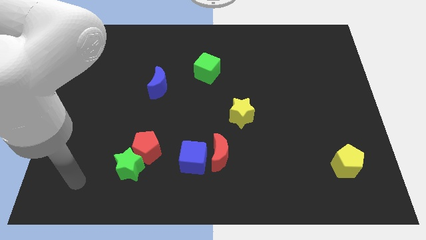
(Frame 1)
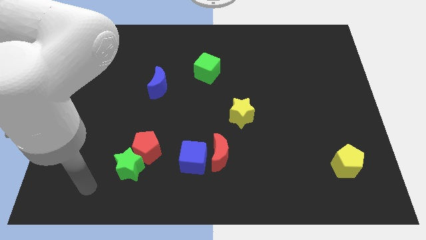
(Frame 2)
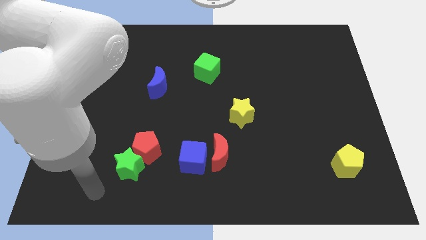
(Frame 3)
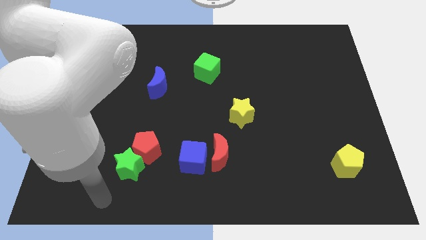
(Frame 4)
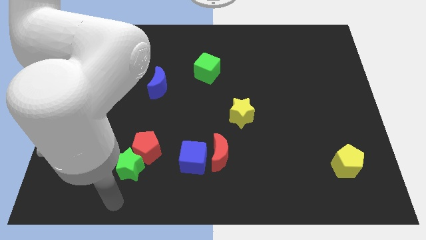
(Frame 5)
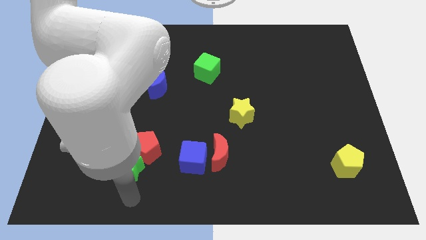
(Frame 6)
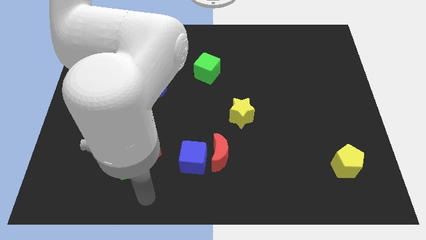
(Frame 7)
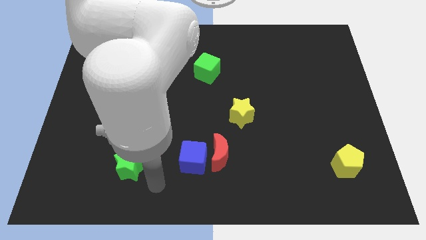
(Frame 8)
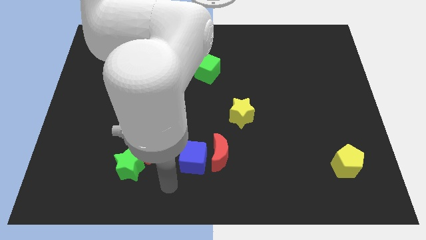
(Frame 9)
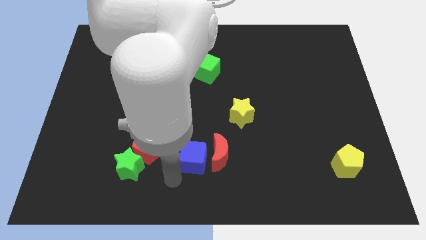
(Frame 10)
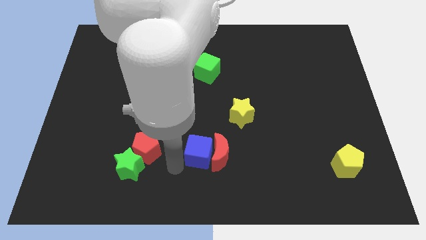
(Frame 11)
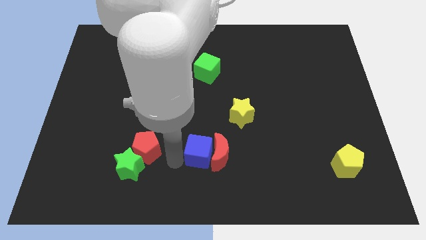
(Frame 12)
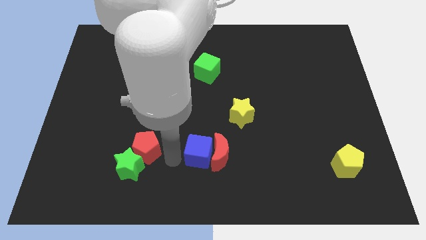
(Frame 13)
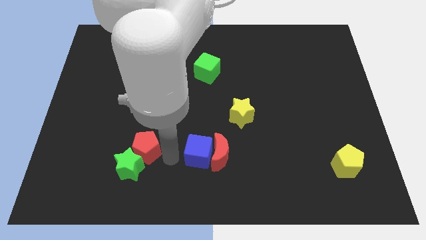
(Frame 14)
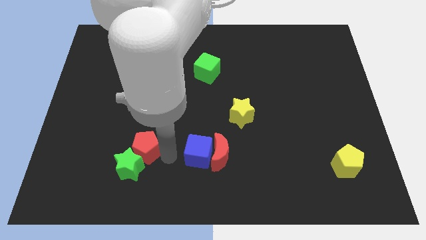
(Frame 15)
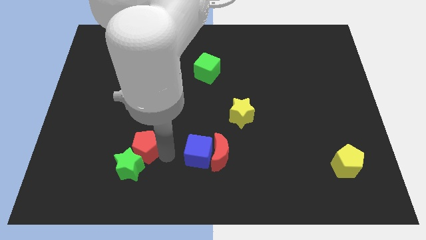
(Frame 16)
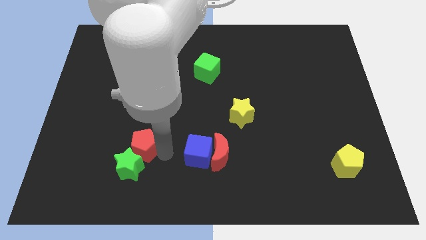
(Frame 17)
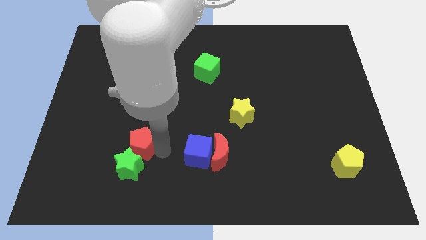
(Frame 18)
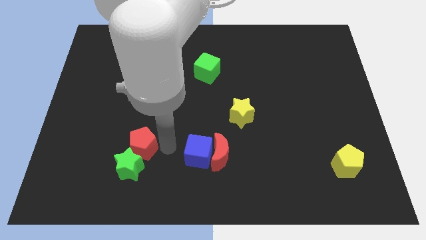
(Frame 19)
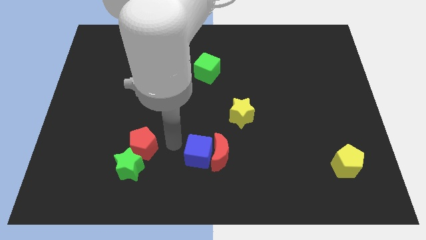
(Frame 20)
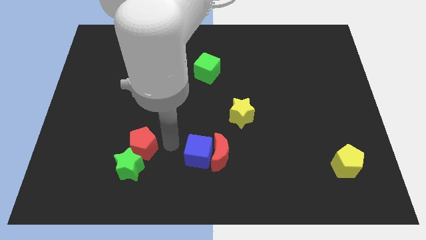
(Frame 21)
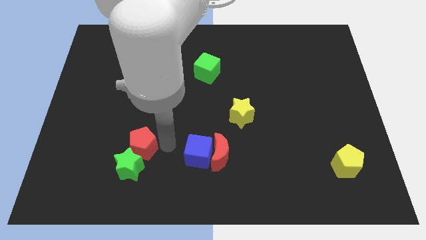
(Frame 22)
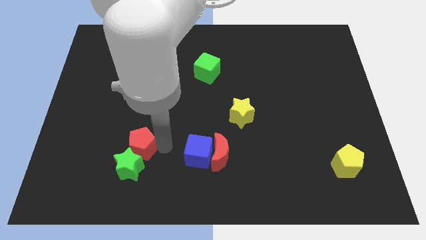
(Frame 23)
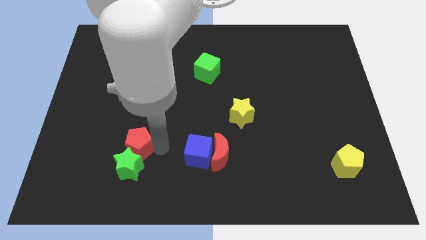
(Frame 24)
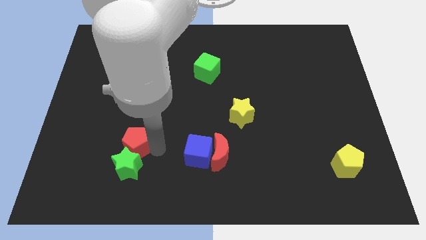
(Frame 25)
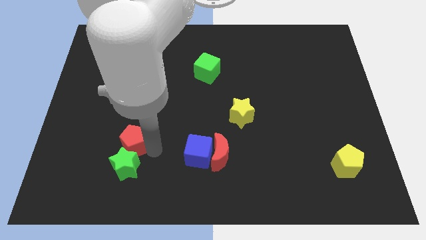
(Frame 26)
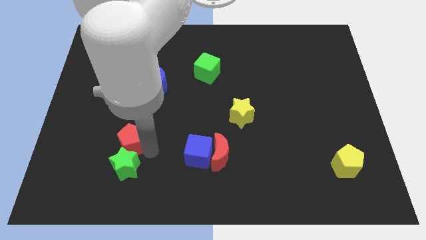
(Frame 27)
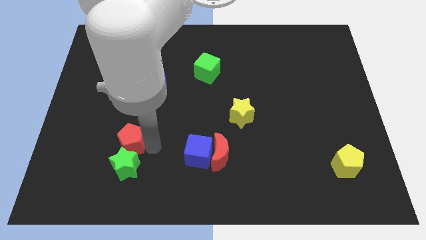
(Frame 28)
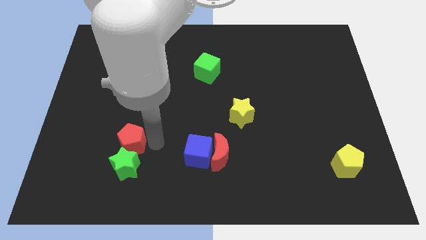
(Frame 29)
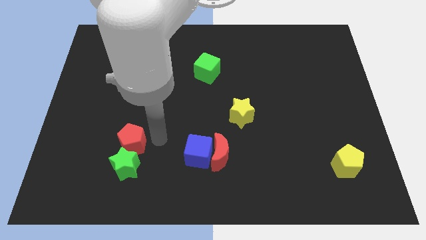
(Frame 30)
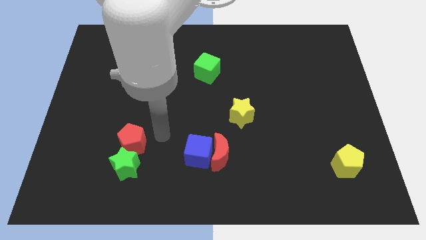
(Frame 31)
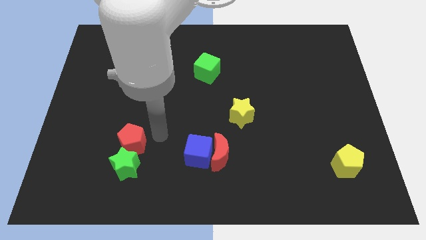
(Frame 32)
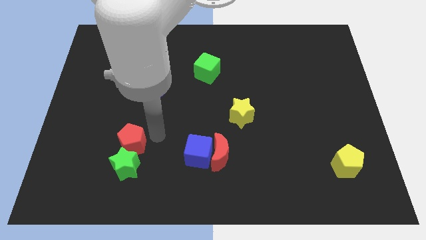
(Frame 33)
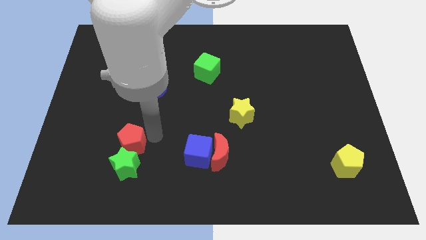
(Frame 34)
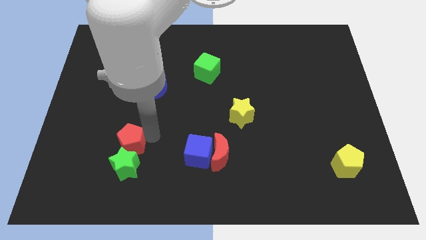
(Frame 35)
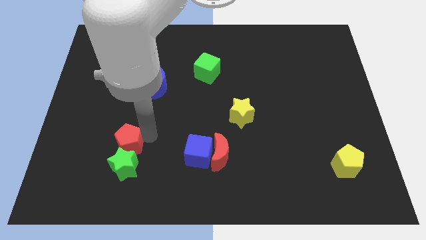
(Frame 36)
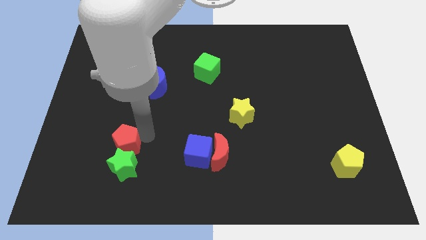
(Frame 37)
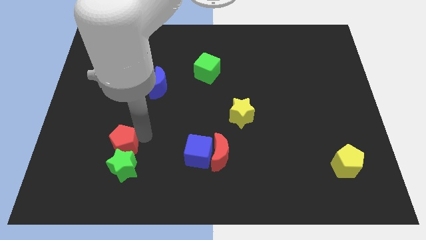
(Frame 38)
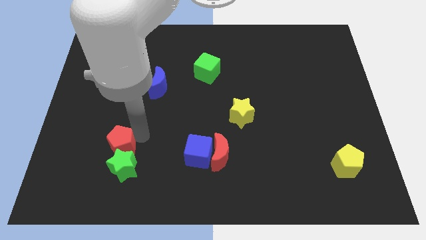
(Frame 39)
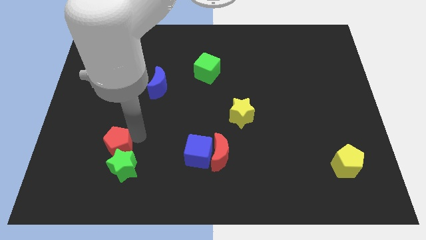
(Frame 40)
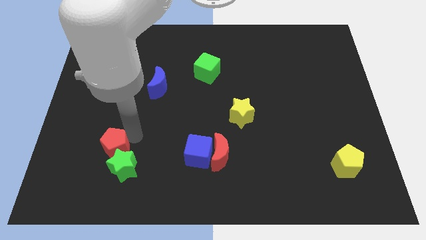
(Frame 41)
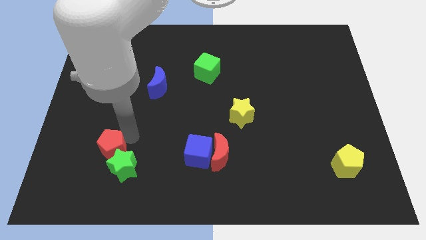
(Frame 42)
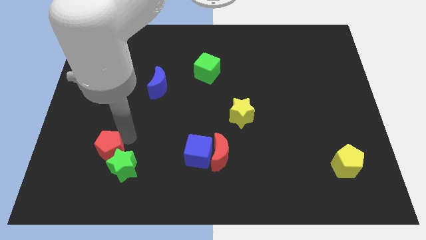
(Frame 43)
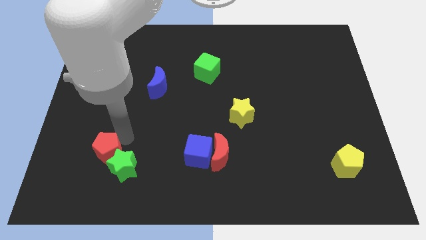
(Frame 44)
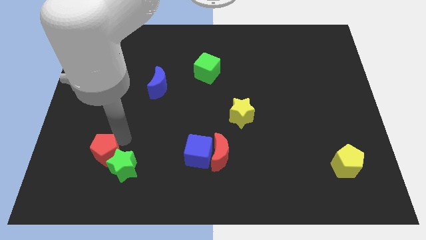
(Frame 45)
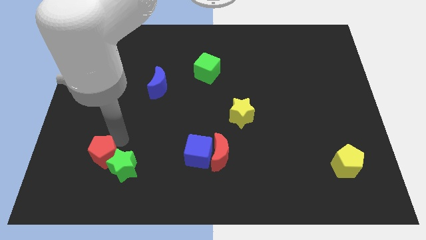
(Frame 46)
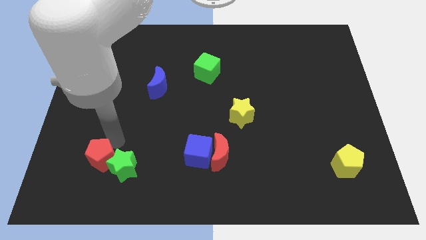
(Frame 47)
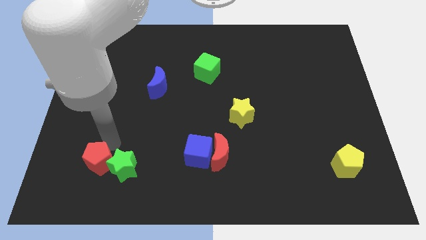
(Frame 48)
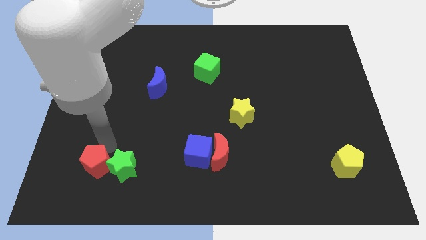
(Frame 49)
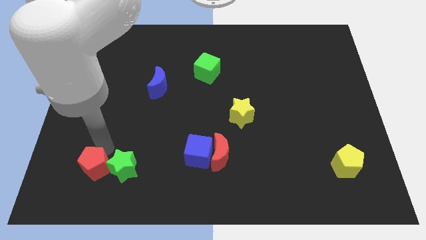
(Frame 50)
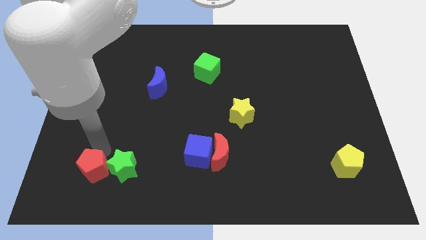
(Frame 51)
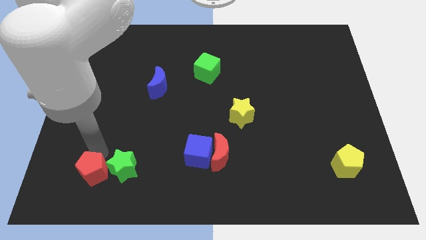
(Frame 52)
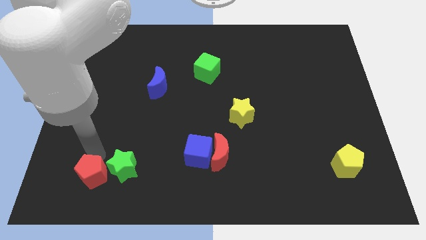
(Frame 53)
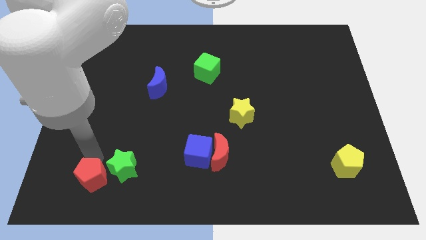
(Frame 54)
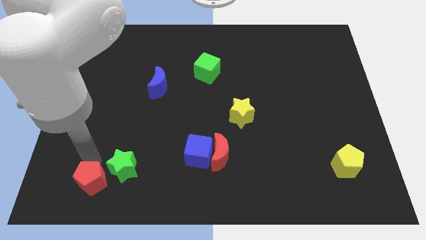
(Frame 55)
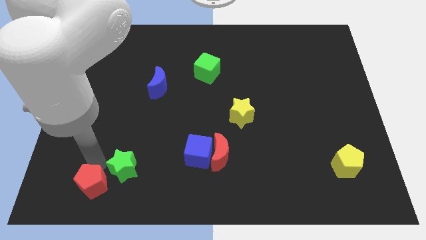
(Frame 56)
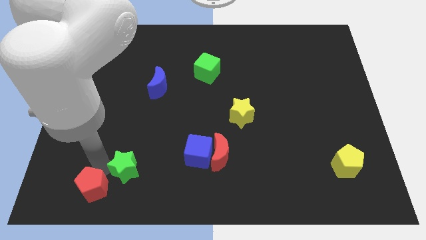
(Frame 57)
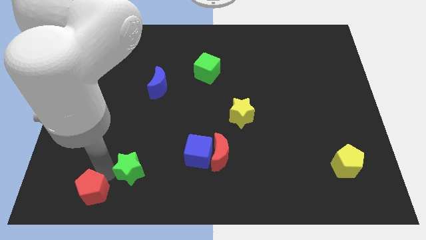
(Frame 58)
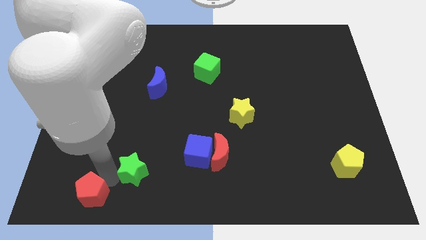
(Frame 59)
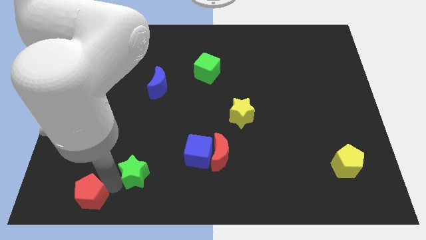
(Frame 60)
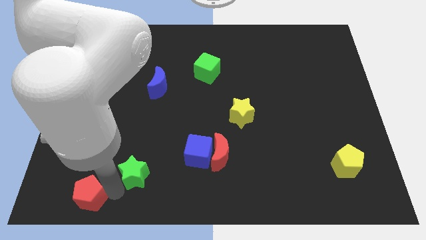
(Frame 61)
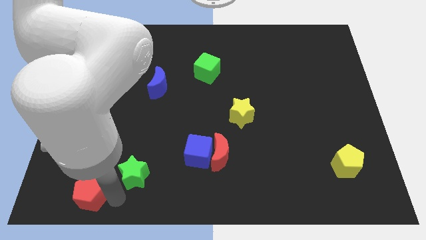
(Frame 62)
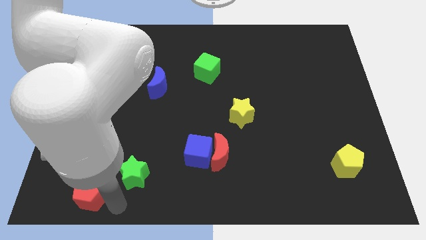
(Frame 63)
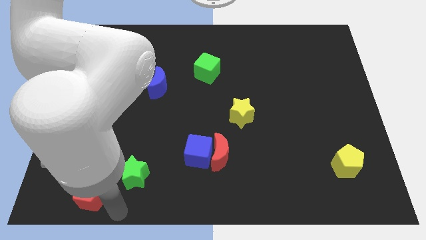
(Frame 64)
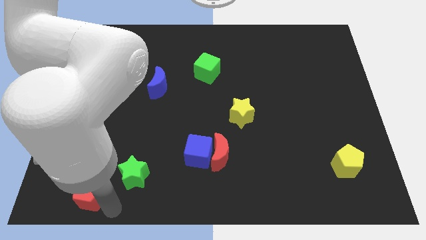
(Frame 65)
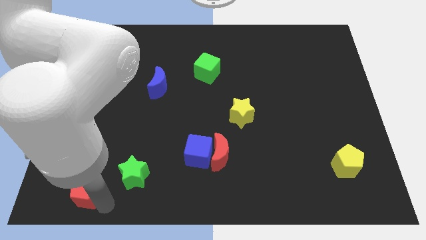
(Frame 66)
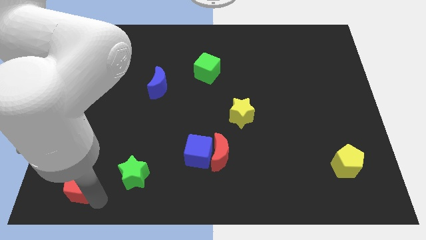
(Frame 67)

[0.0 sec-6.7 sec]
move the red pentagon to the bottom left
